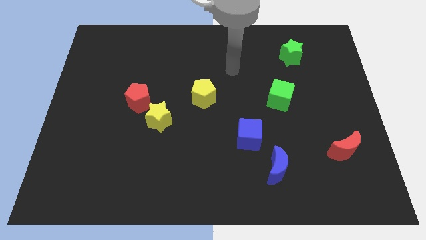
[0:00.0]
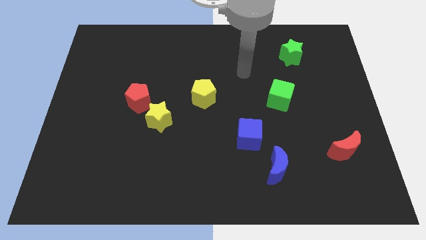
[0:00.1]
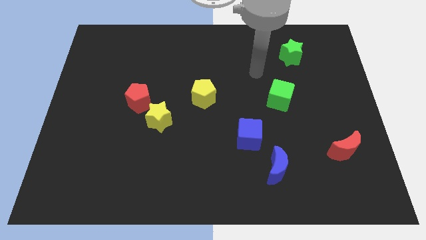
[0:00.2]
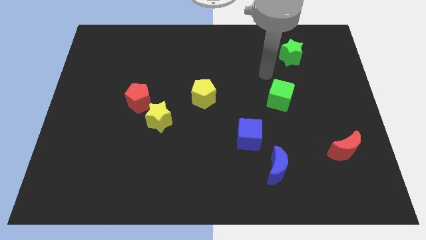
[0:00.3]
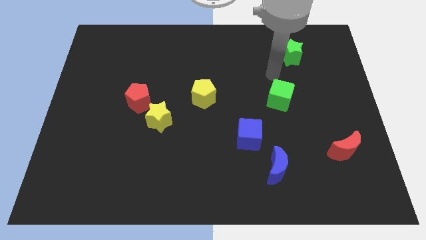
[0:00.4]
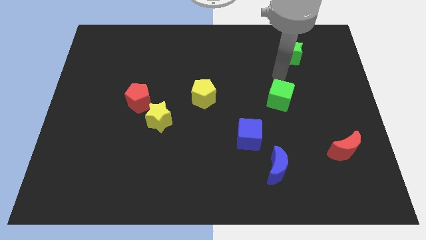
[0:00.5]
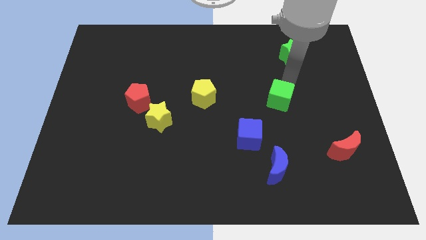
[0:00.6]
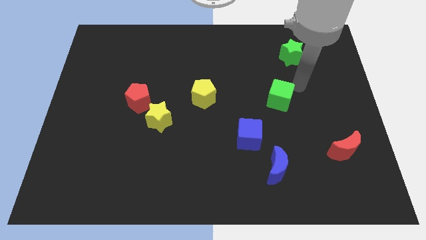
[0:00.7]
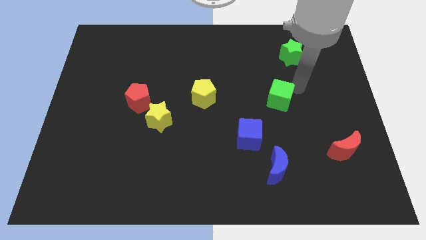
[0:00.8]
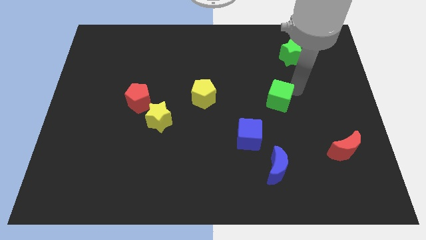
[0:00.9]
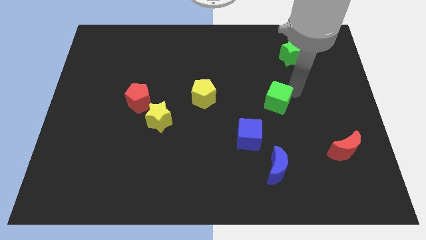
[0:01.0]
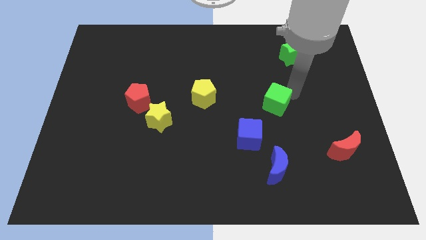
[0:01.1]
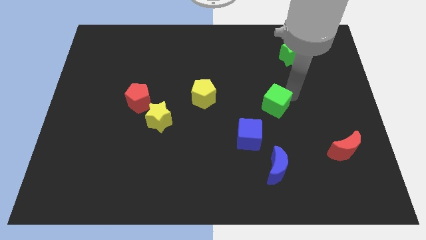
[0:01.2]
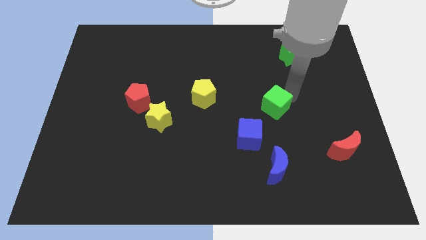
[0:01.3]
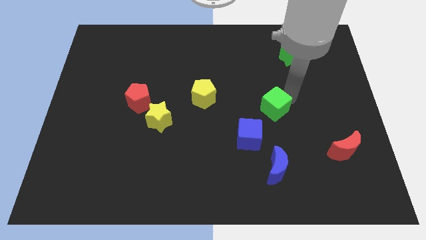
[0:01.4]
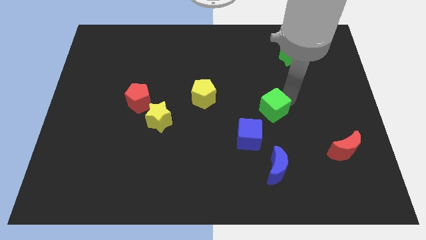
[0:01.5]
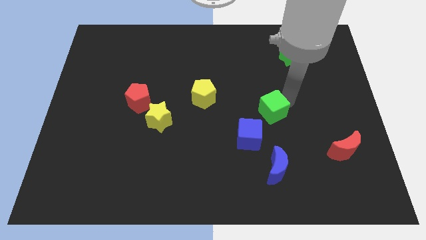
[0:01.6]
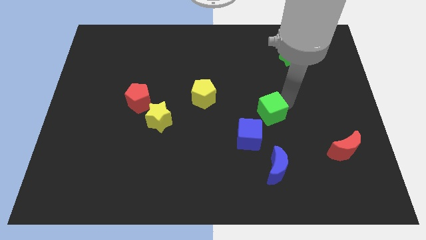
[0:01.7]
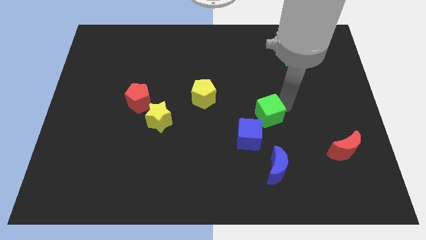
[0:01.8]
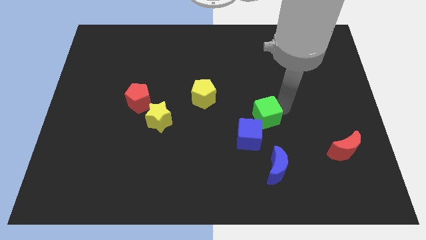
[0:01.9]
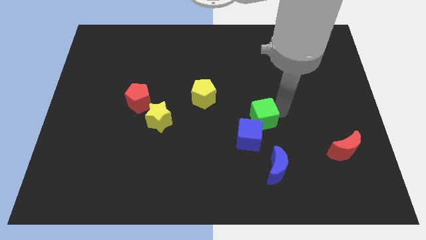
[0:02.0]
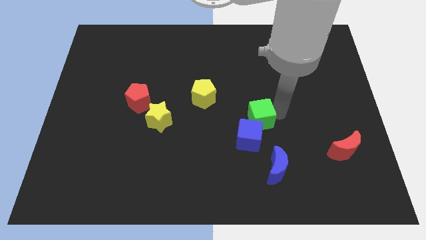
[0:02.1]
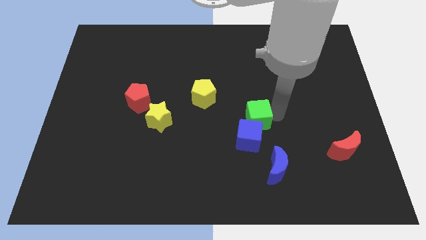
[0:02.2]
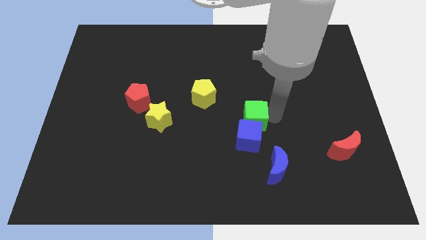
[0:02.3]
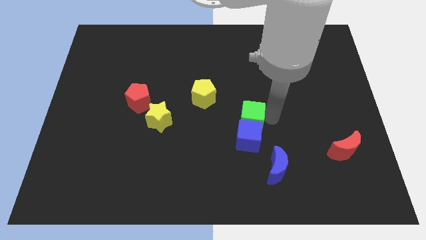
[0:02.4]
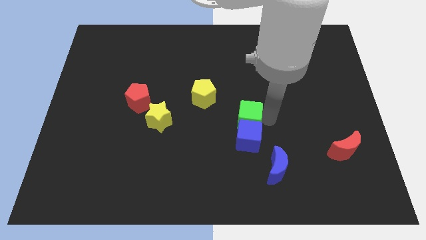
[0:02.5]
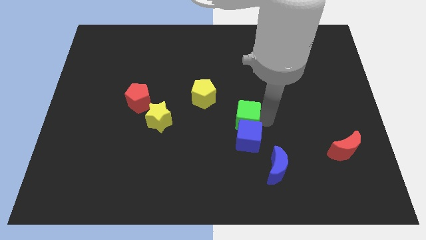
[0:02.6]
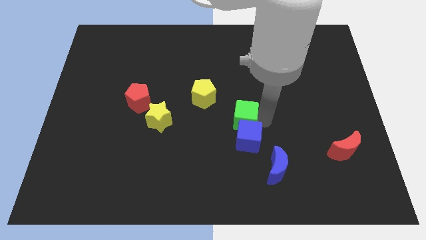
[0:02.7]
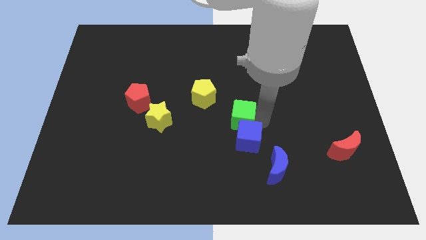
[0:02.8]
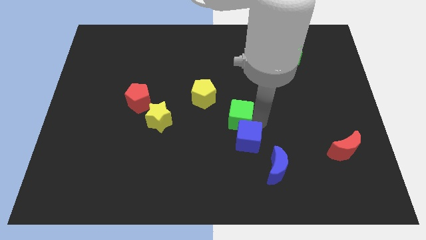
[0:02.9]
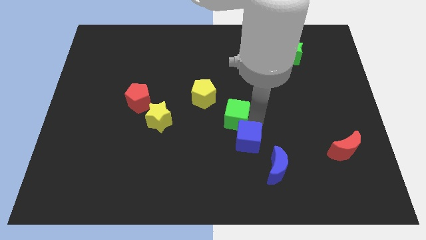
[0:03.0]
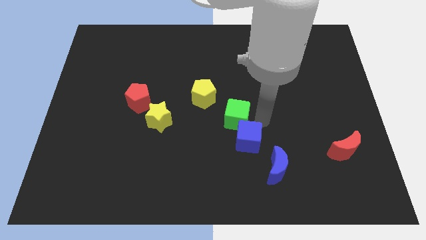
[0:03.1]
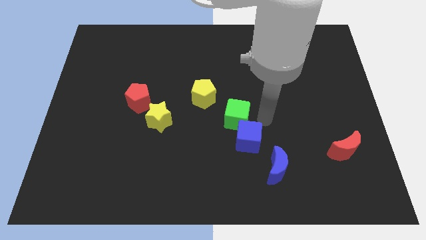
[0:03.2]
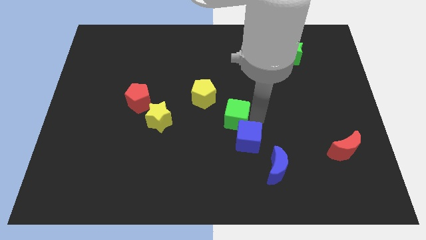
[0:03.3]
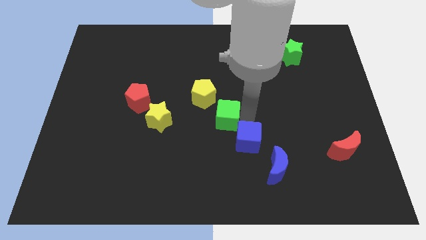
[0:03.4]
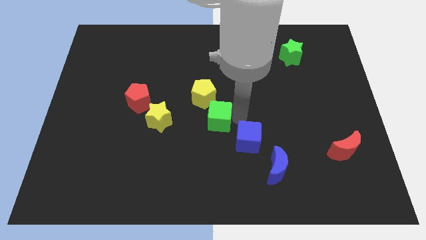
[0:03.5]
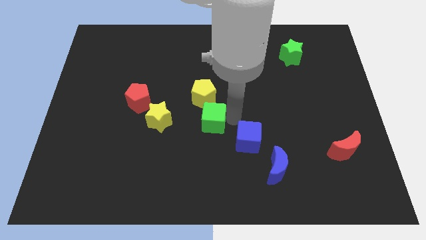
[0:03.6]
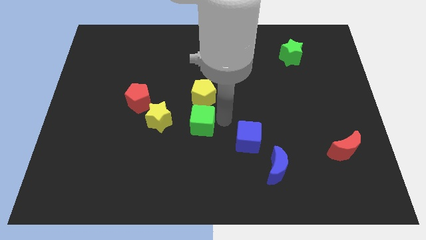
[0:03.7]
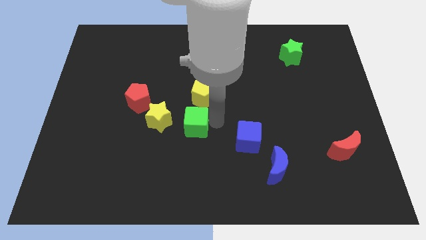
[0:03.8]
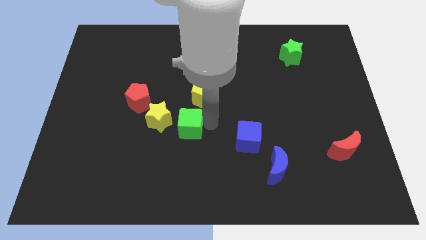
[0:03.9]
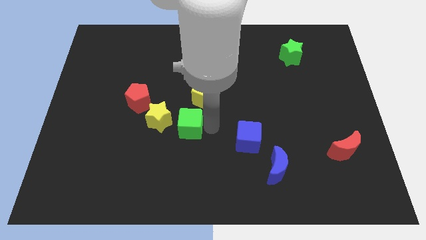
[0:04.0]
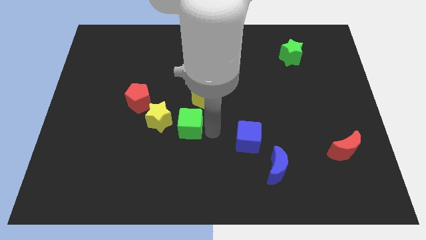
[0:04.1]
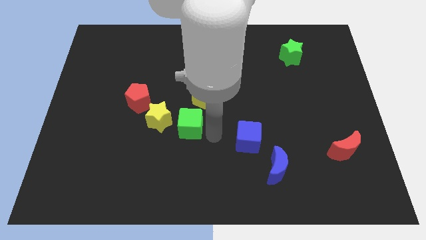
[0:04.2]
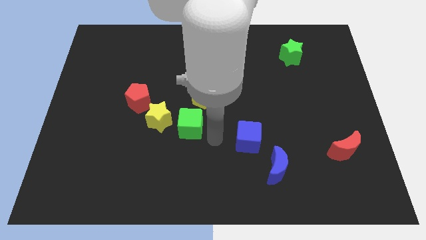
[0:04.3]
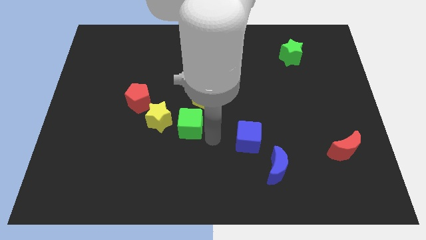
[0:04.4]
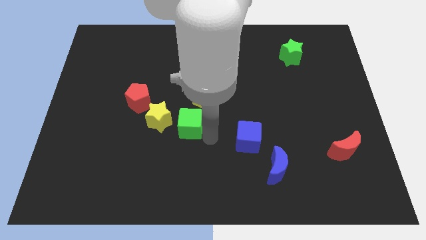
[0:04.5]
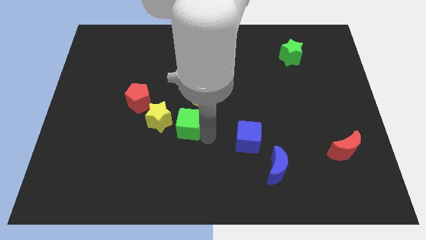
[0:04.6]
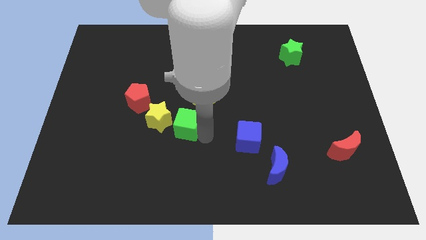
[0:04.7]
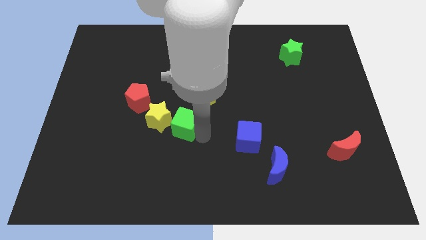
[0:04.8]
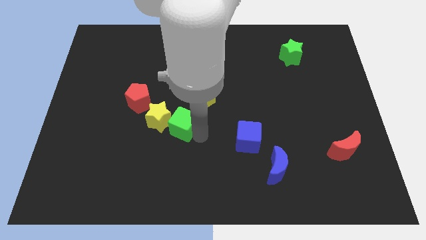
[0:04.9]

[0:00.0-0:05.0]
push the green cube next to the yellow star

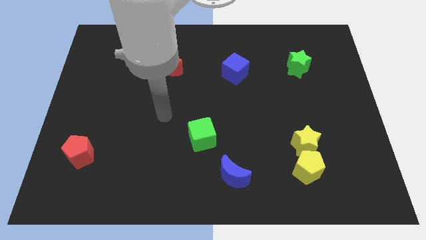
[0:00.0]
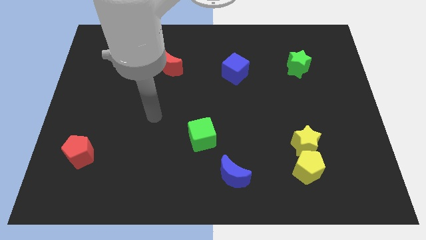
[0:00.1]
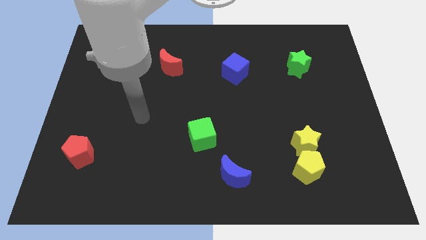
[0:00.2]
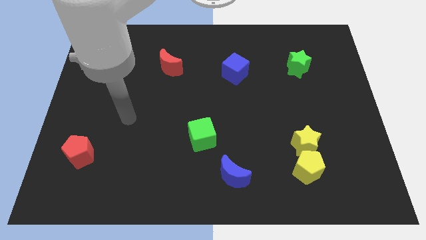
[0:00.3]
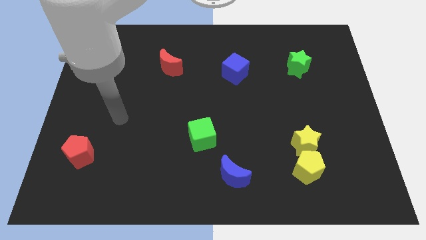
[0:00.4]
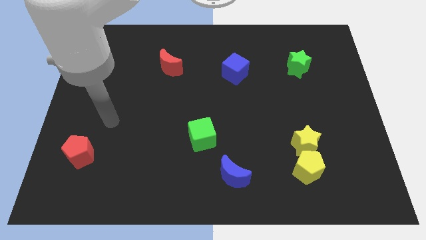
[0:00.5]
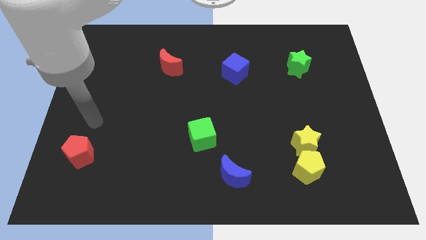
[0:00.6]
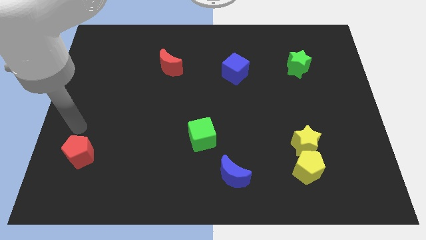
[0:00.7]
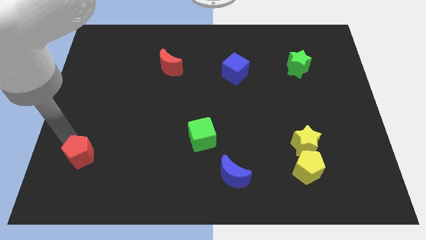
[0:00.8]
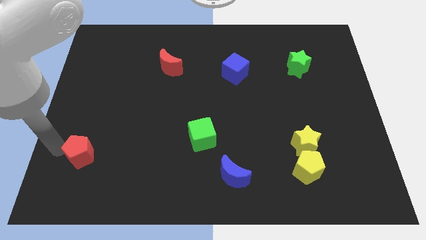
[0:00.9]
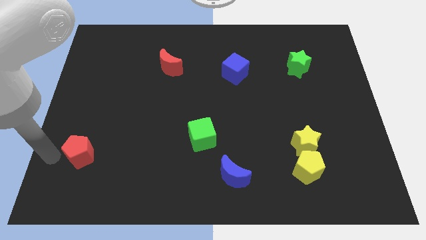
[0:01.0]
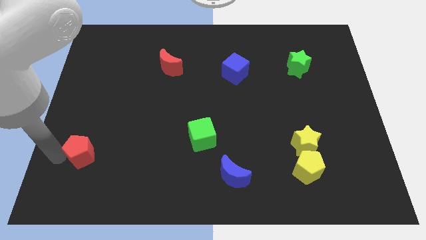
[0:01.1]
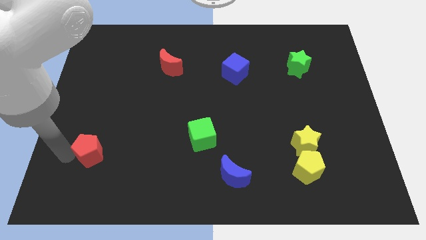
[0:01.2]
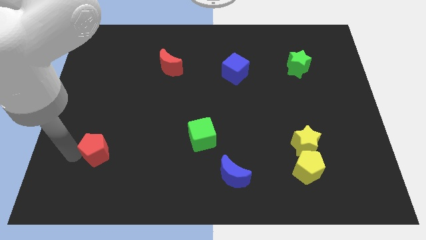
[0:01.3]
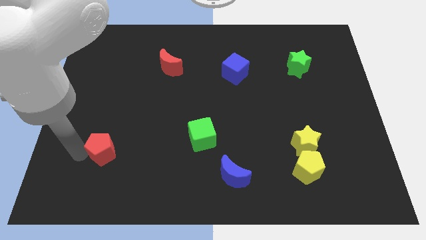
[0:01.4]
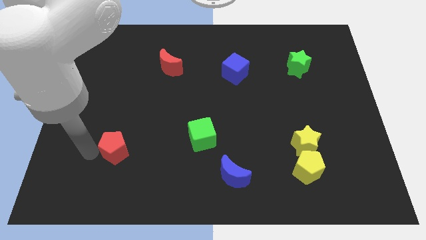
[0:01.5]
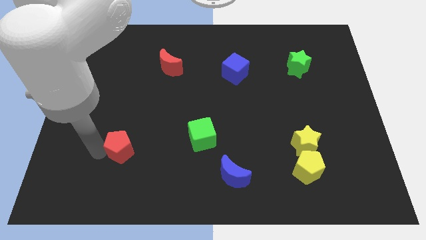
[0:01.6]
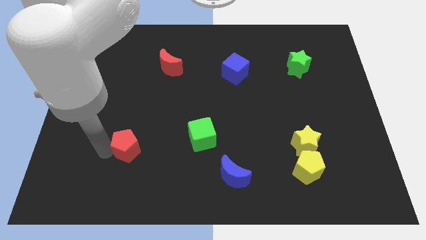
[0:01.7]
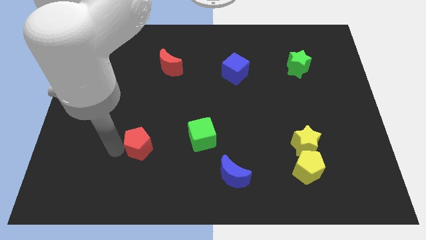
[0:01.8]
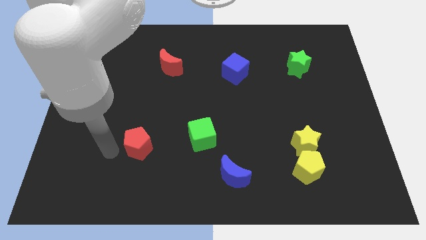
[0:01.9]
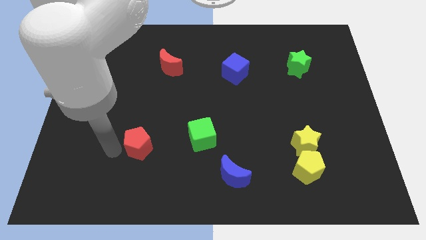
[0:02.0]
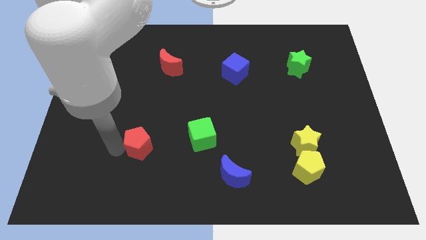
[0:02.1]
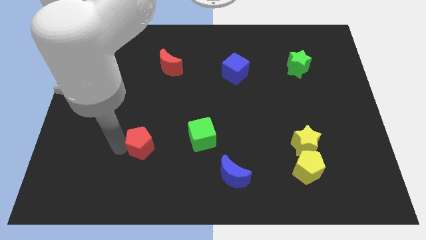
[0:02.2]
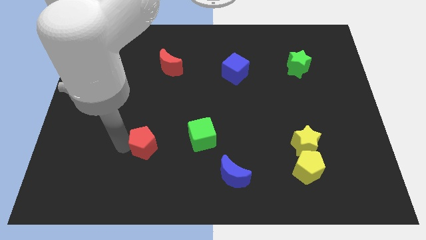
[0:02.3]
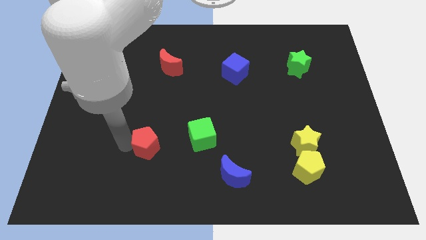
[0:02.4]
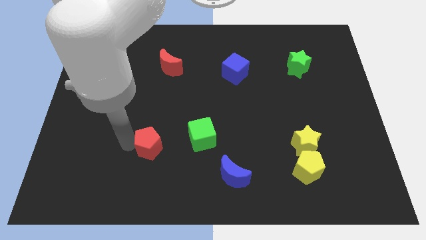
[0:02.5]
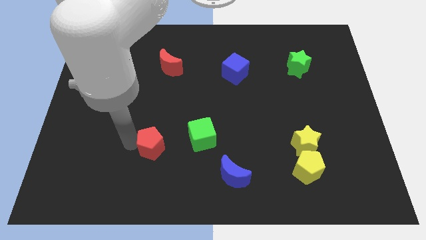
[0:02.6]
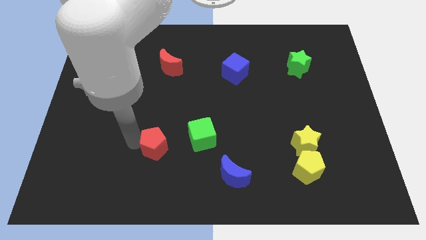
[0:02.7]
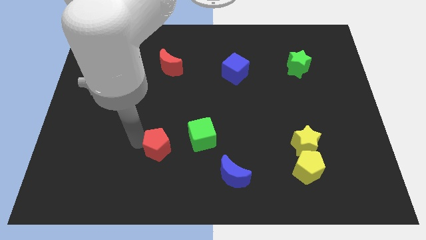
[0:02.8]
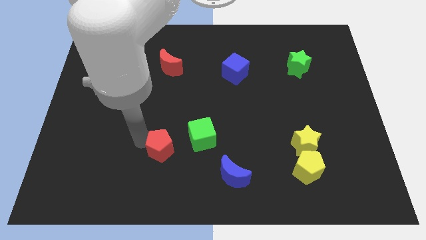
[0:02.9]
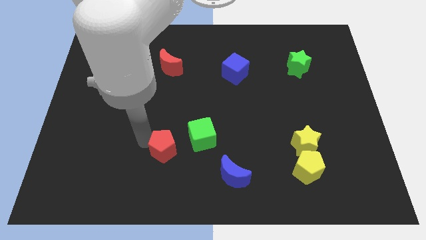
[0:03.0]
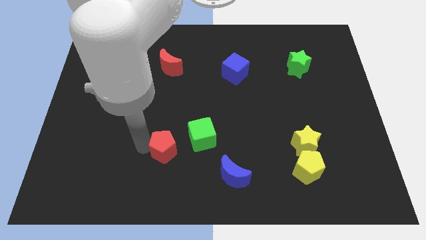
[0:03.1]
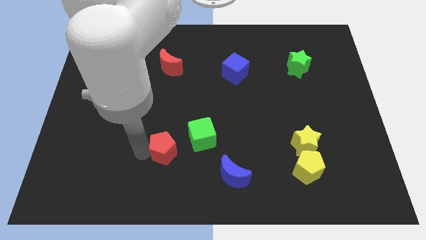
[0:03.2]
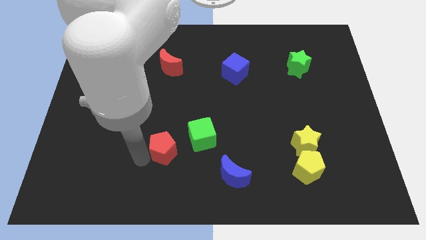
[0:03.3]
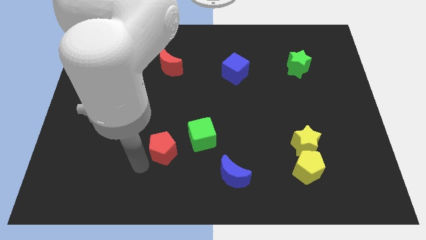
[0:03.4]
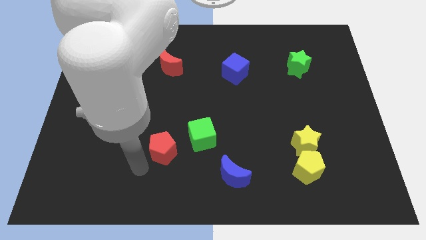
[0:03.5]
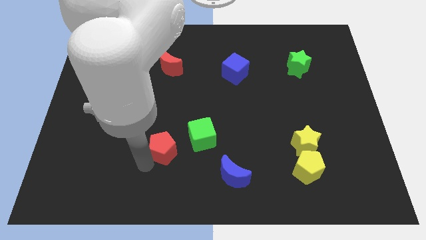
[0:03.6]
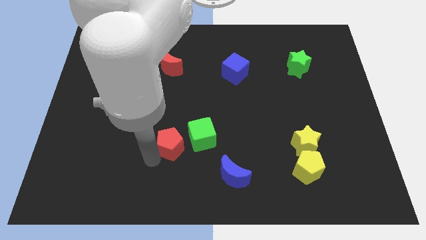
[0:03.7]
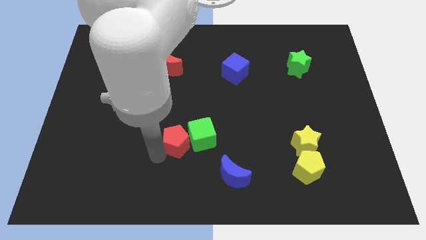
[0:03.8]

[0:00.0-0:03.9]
move the red pentagon towards the green cube
